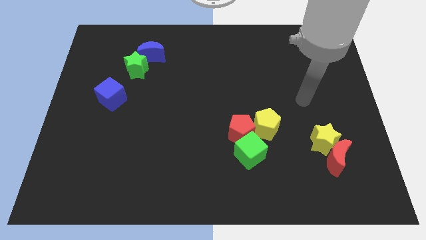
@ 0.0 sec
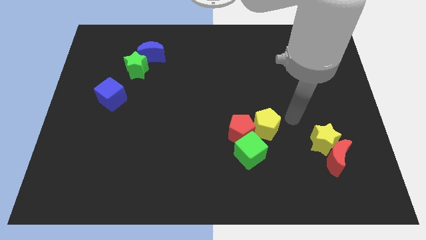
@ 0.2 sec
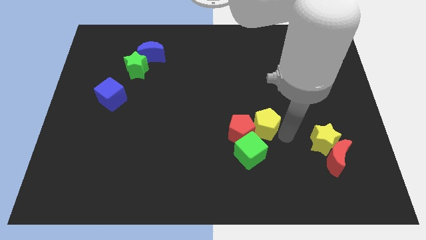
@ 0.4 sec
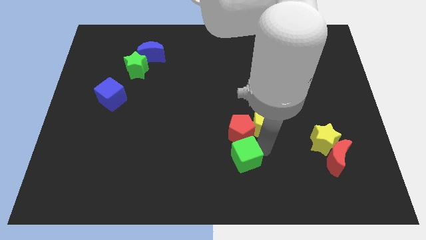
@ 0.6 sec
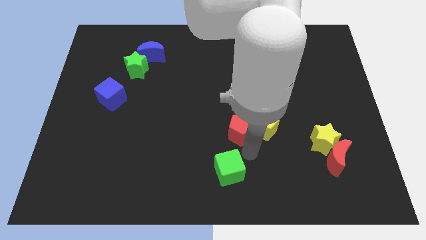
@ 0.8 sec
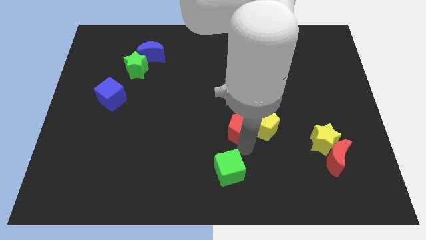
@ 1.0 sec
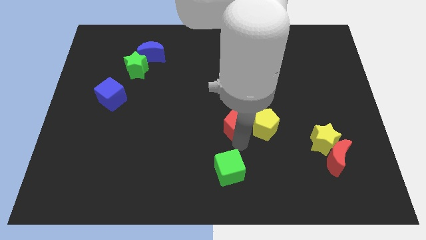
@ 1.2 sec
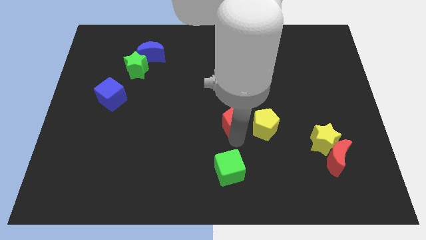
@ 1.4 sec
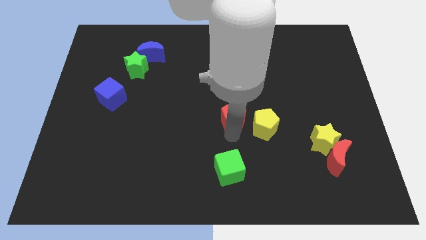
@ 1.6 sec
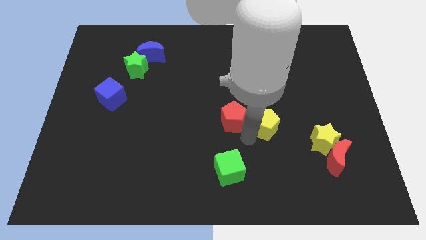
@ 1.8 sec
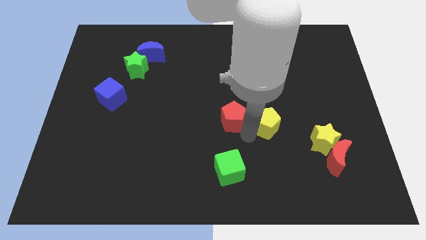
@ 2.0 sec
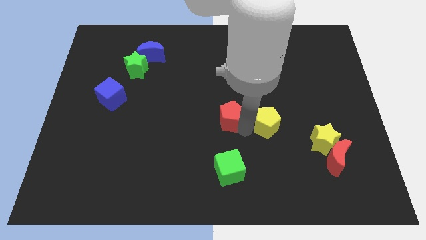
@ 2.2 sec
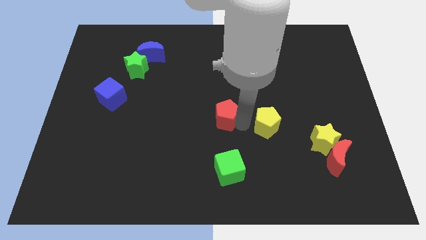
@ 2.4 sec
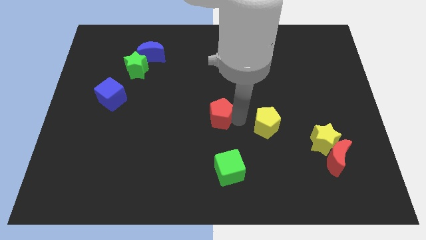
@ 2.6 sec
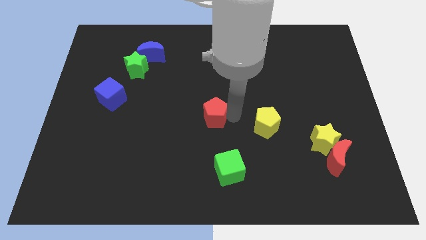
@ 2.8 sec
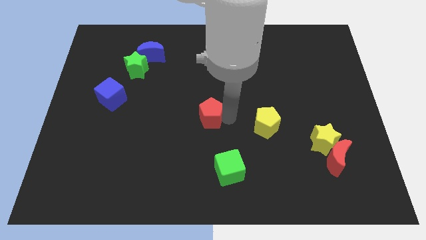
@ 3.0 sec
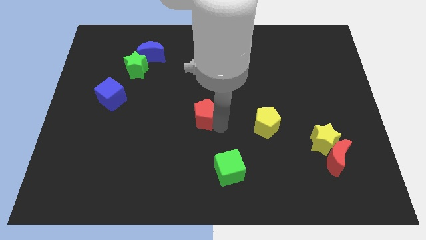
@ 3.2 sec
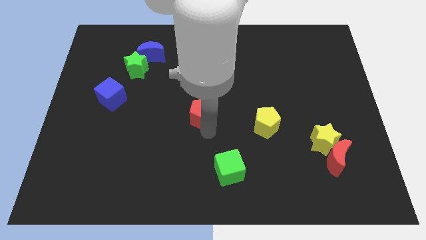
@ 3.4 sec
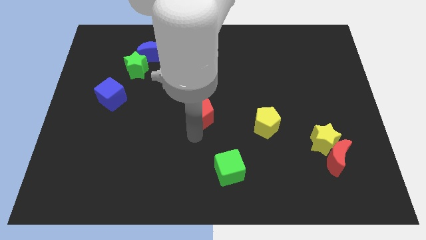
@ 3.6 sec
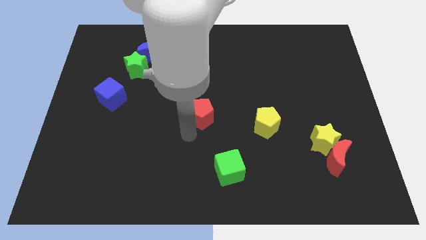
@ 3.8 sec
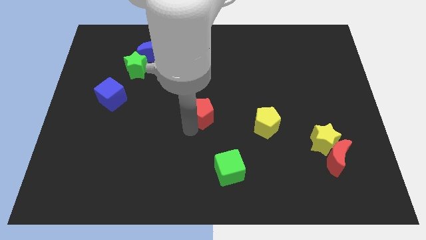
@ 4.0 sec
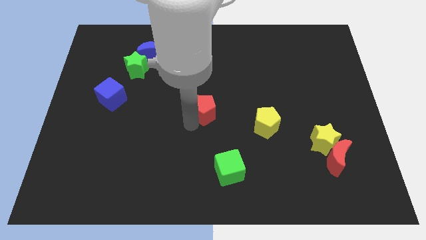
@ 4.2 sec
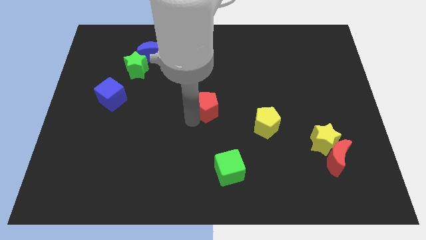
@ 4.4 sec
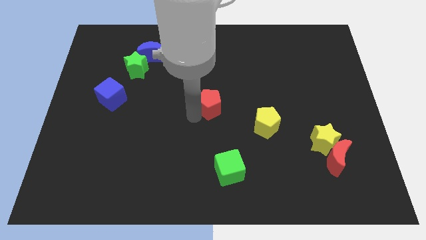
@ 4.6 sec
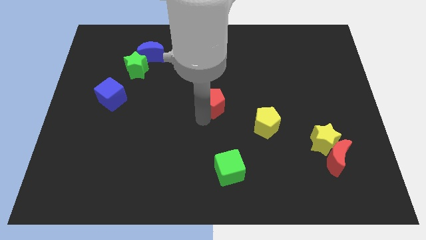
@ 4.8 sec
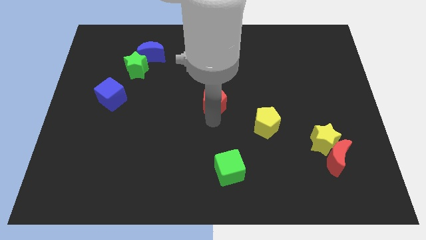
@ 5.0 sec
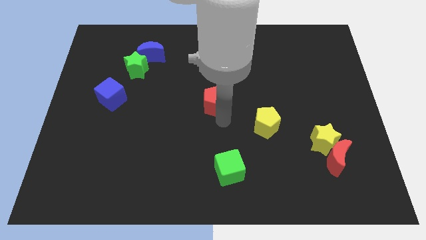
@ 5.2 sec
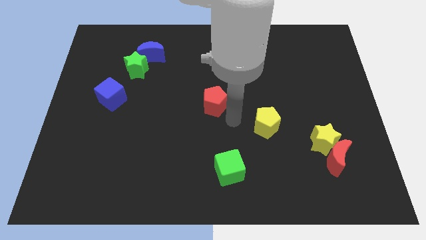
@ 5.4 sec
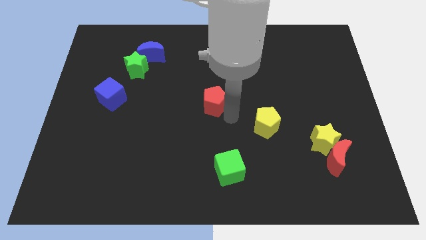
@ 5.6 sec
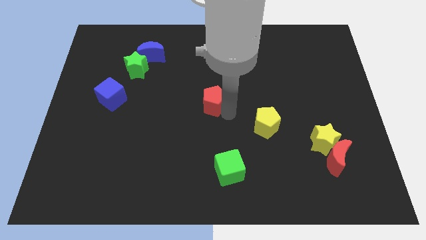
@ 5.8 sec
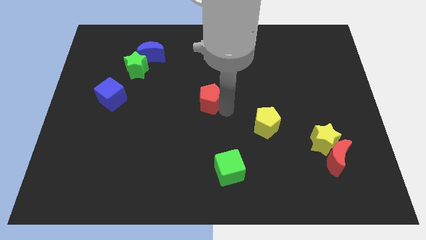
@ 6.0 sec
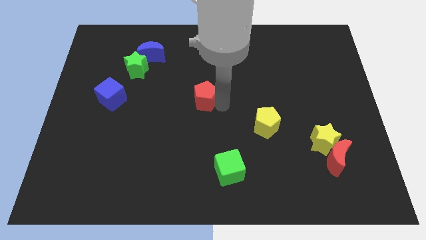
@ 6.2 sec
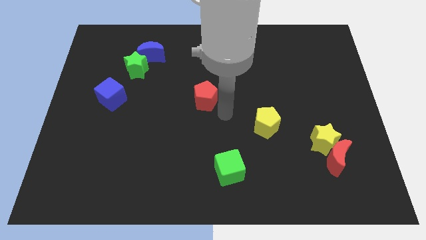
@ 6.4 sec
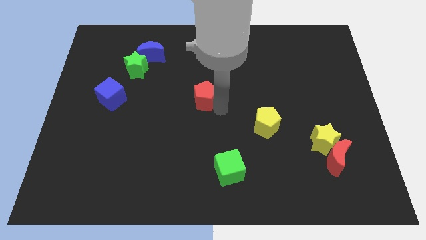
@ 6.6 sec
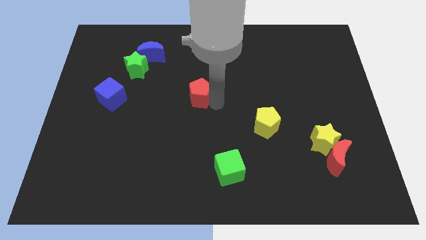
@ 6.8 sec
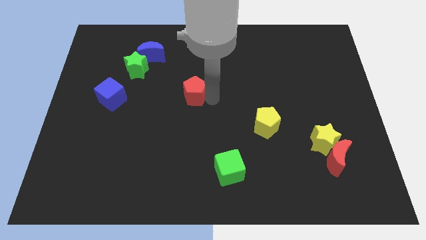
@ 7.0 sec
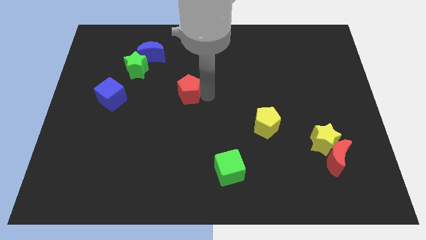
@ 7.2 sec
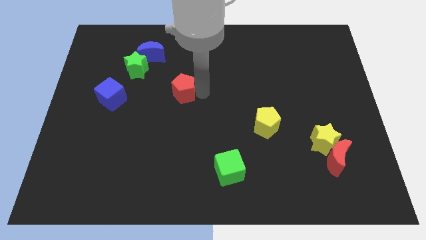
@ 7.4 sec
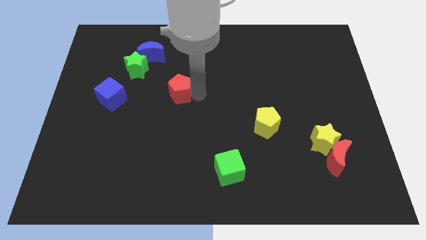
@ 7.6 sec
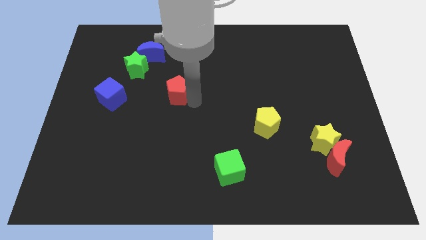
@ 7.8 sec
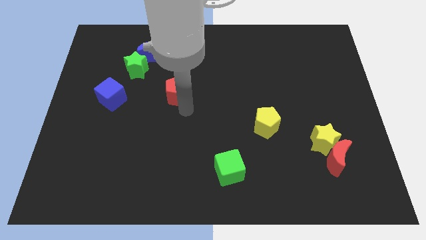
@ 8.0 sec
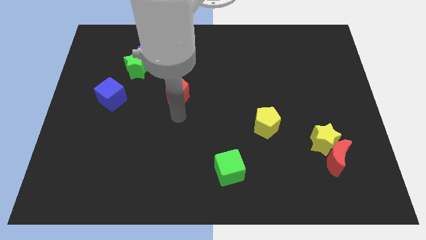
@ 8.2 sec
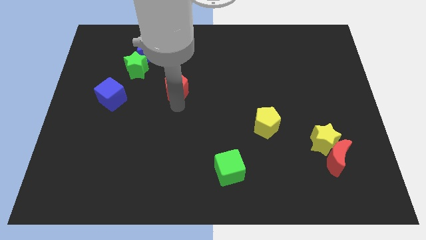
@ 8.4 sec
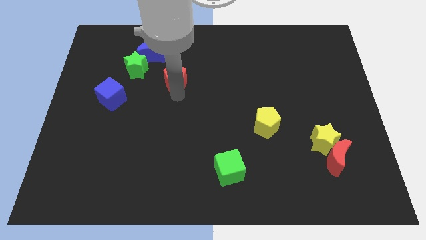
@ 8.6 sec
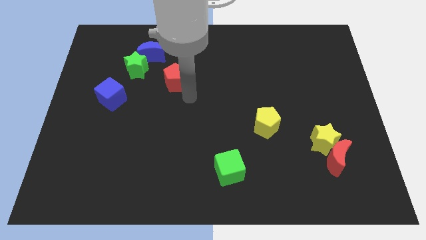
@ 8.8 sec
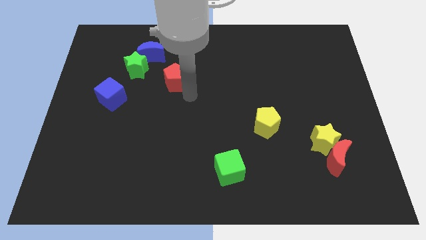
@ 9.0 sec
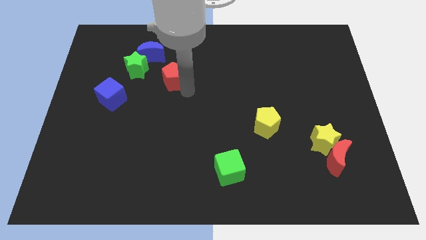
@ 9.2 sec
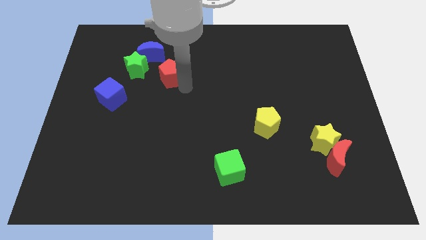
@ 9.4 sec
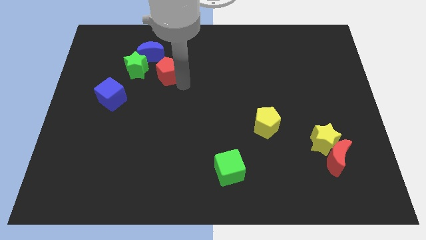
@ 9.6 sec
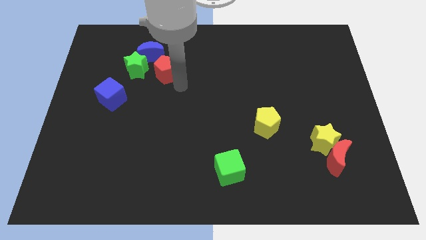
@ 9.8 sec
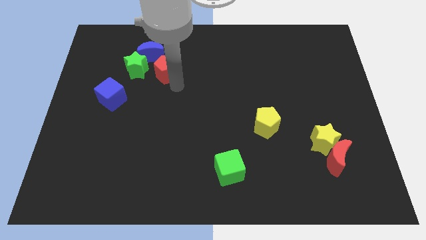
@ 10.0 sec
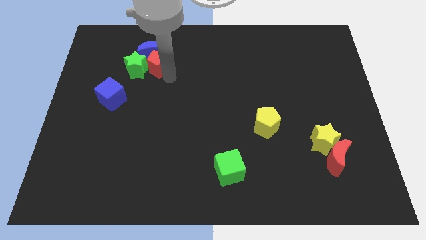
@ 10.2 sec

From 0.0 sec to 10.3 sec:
put the red pentagon towards the blue moon

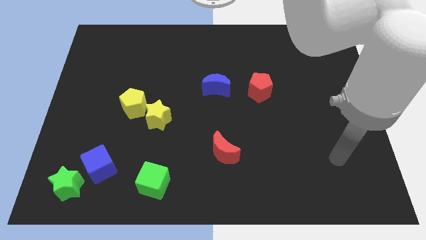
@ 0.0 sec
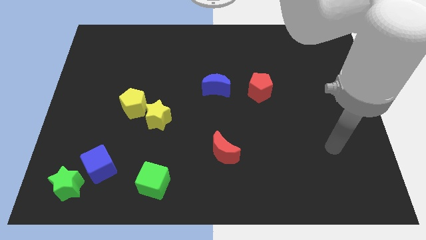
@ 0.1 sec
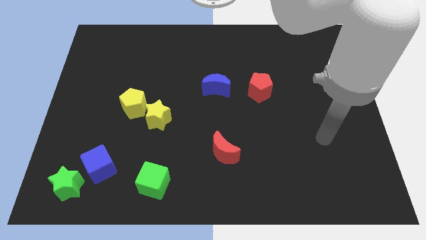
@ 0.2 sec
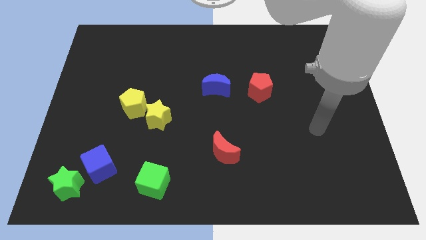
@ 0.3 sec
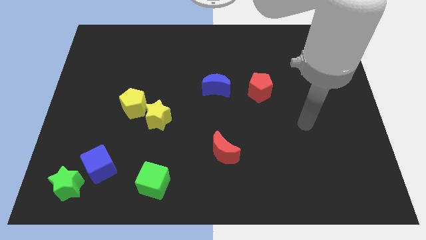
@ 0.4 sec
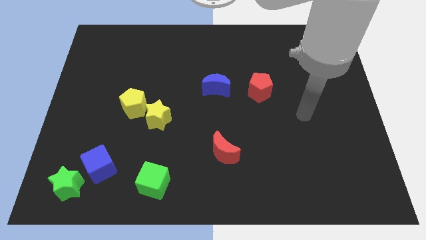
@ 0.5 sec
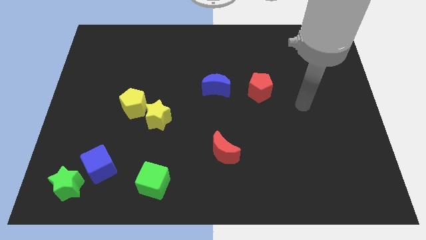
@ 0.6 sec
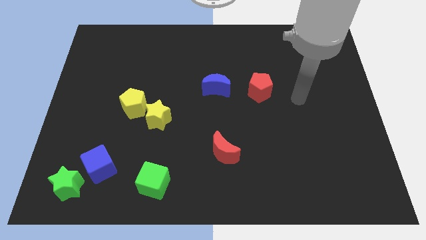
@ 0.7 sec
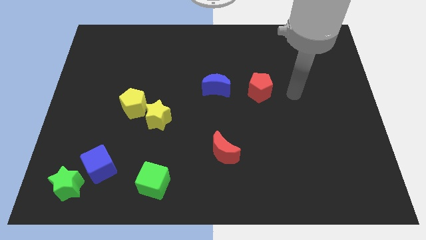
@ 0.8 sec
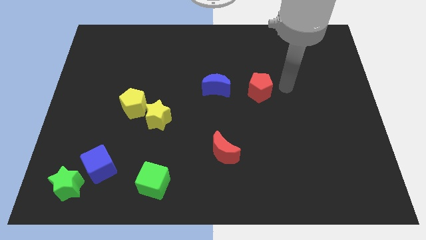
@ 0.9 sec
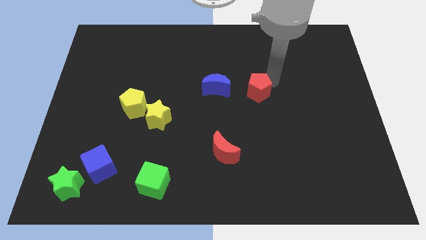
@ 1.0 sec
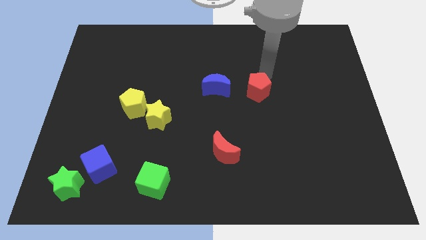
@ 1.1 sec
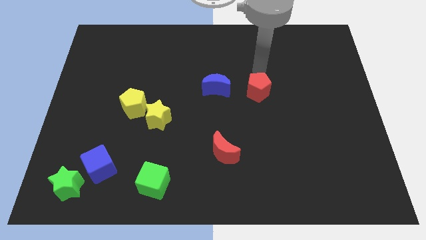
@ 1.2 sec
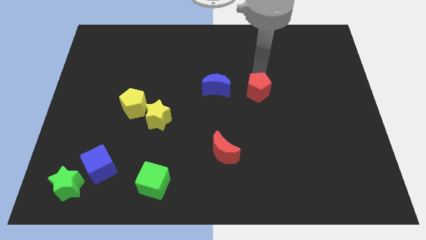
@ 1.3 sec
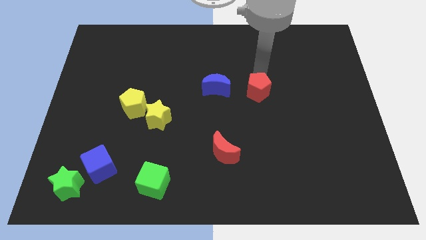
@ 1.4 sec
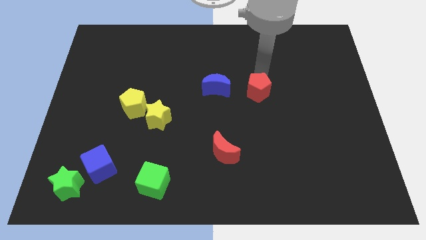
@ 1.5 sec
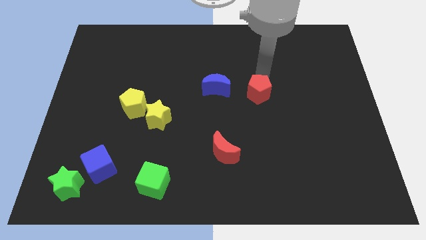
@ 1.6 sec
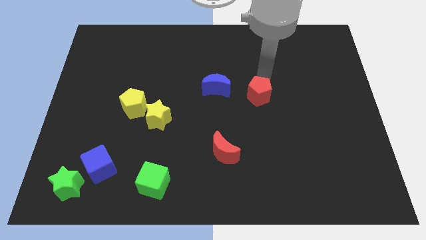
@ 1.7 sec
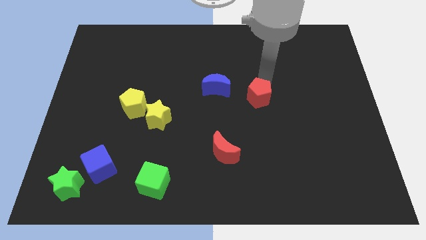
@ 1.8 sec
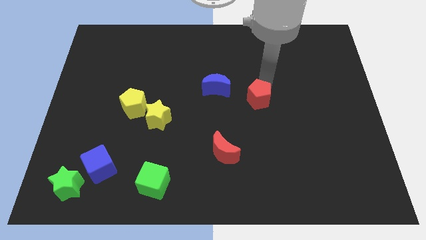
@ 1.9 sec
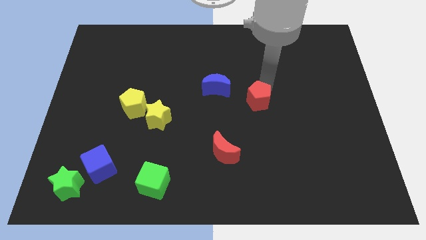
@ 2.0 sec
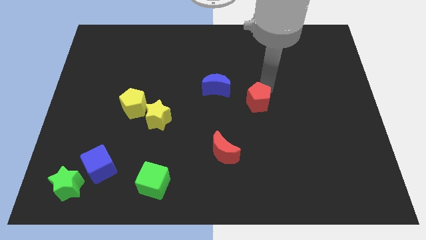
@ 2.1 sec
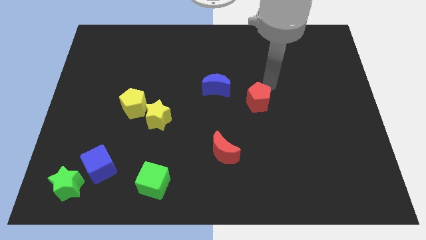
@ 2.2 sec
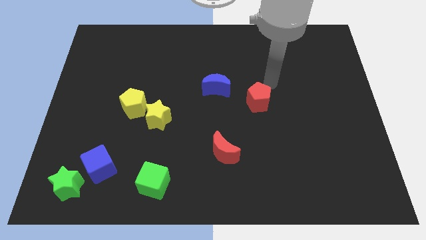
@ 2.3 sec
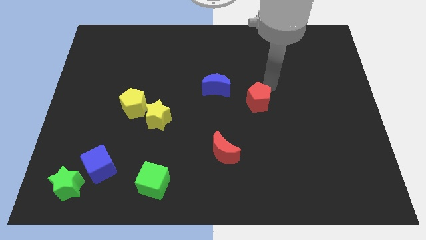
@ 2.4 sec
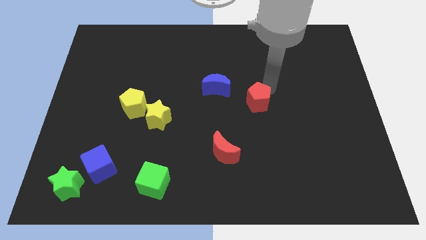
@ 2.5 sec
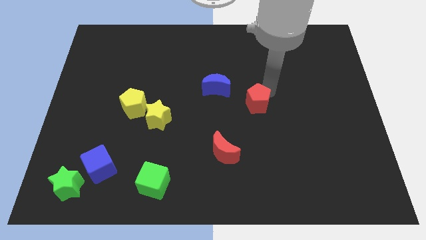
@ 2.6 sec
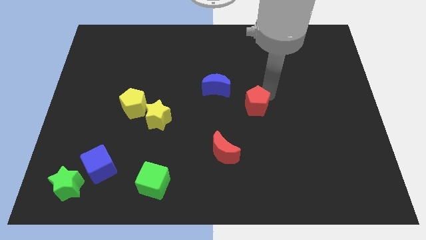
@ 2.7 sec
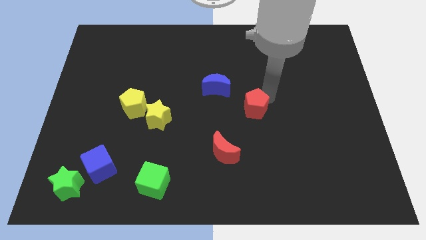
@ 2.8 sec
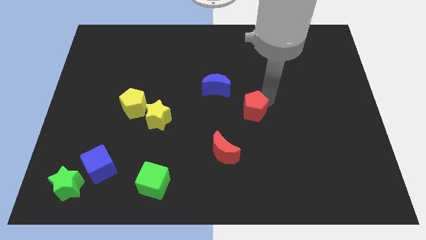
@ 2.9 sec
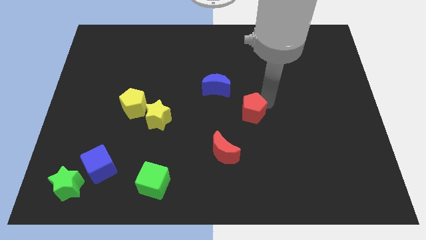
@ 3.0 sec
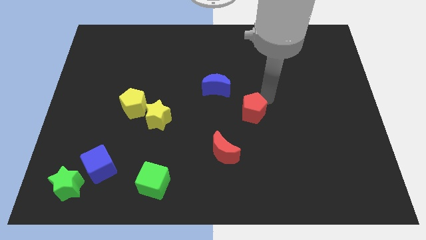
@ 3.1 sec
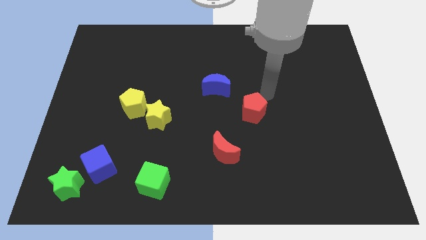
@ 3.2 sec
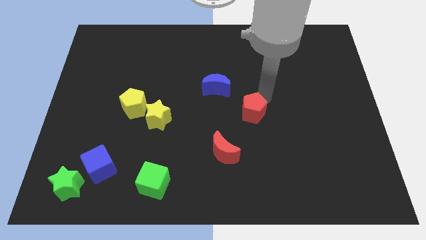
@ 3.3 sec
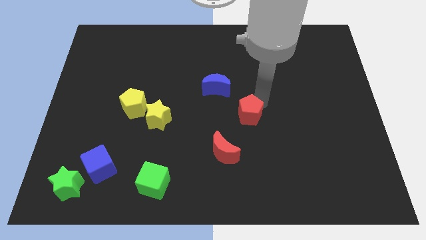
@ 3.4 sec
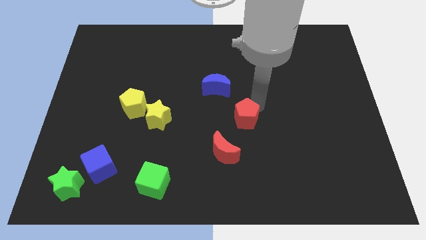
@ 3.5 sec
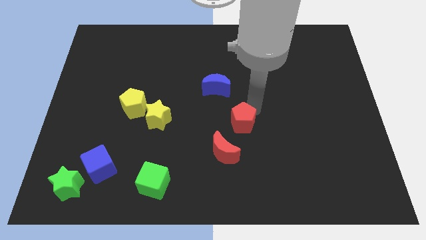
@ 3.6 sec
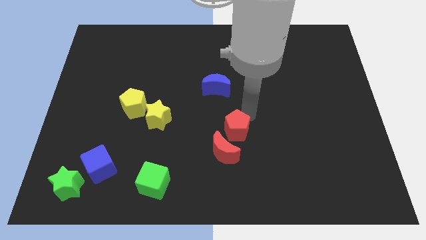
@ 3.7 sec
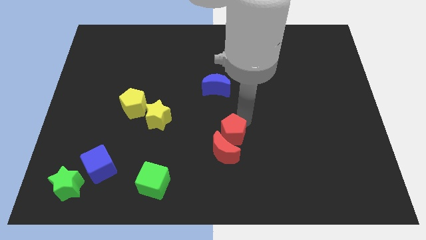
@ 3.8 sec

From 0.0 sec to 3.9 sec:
slide the red pentagon close to the red moon
